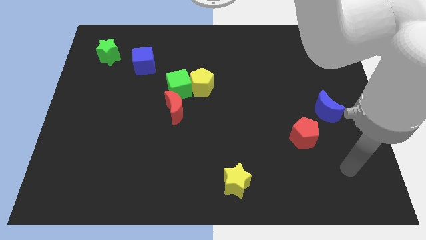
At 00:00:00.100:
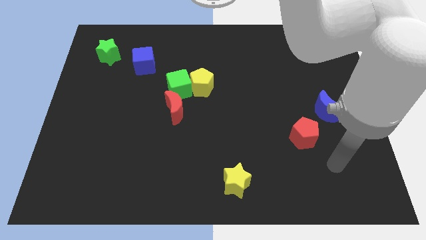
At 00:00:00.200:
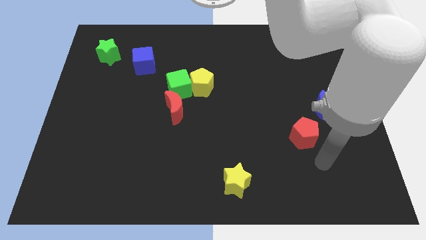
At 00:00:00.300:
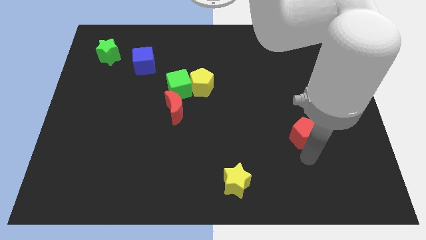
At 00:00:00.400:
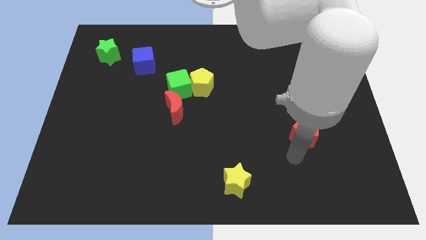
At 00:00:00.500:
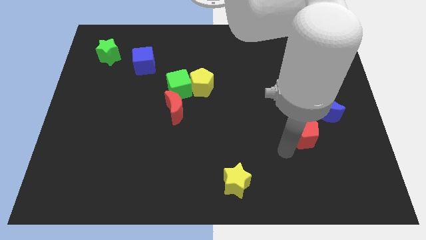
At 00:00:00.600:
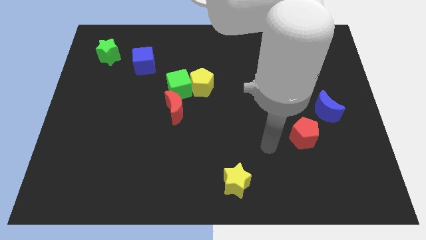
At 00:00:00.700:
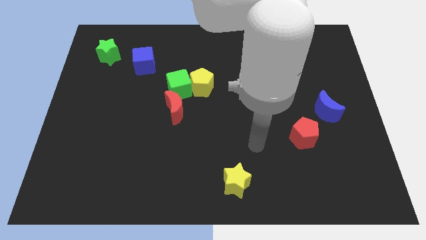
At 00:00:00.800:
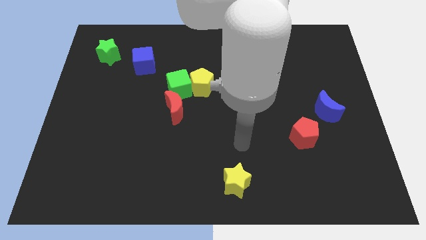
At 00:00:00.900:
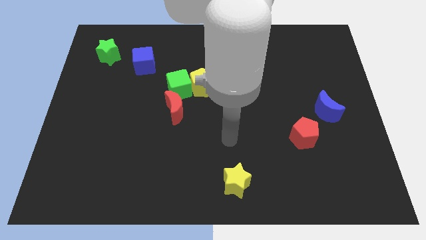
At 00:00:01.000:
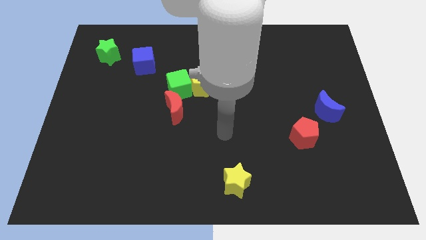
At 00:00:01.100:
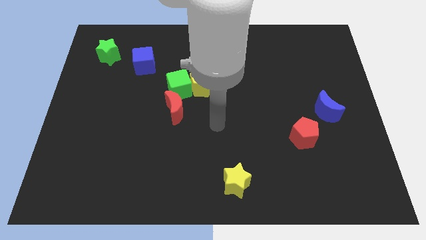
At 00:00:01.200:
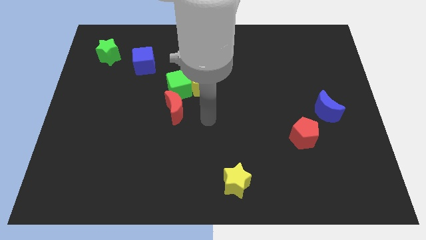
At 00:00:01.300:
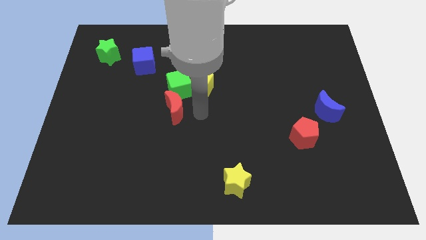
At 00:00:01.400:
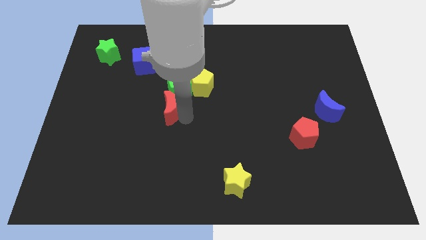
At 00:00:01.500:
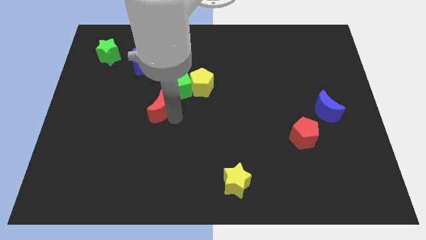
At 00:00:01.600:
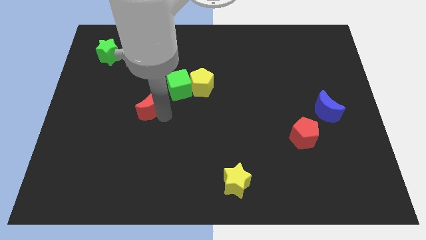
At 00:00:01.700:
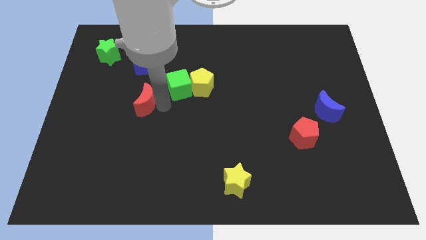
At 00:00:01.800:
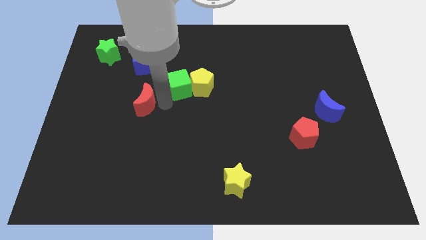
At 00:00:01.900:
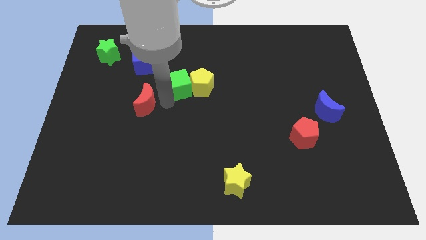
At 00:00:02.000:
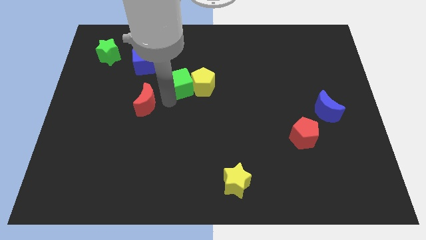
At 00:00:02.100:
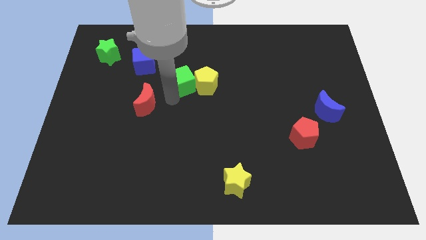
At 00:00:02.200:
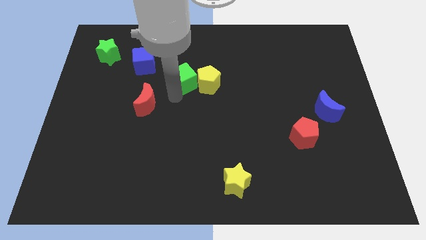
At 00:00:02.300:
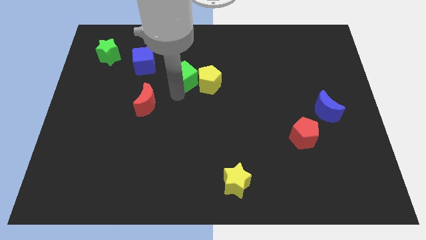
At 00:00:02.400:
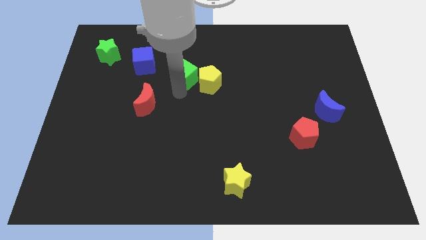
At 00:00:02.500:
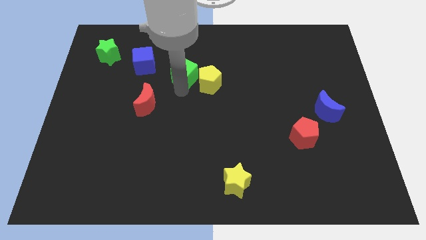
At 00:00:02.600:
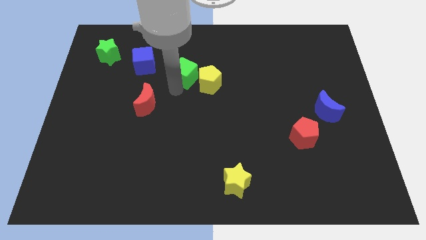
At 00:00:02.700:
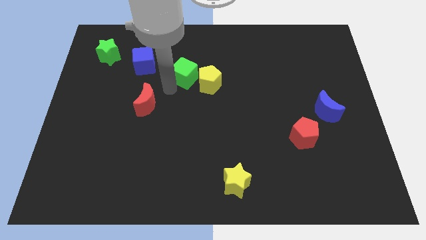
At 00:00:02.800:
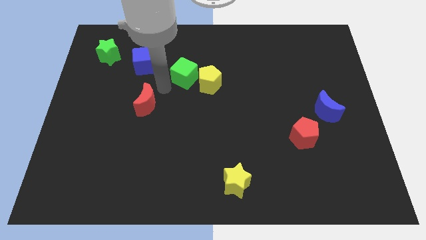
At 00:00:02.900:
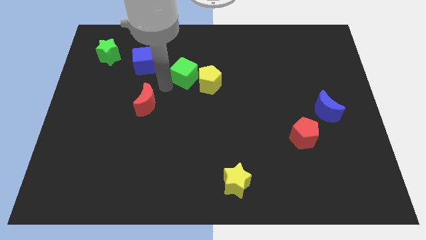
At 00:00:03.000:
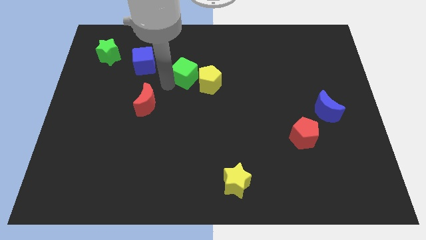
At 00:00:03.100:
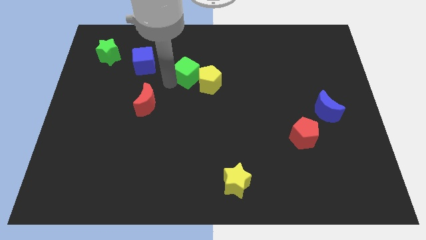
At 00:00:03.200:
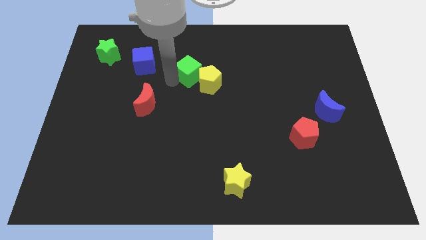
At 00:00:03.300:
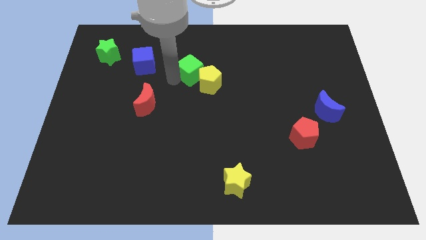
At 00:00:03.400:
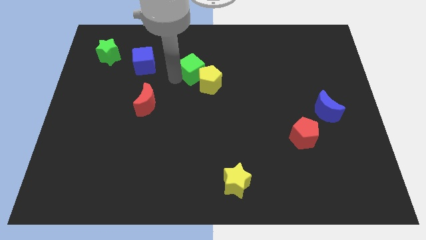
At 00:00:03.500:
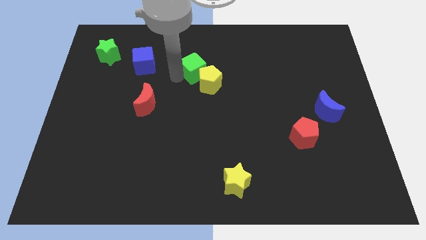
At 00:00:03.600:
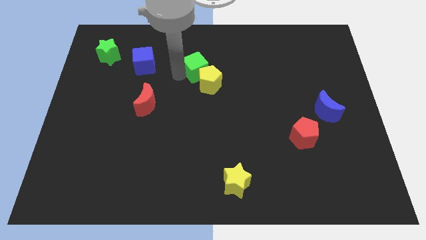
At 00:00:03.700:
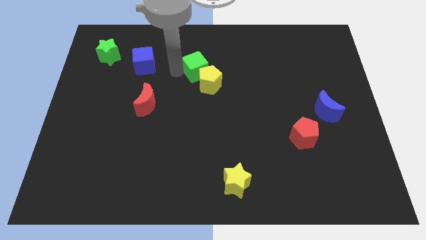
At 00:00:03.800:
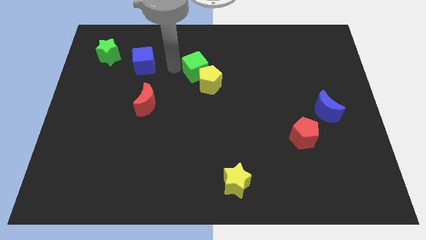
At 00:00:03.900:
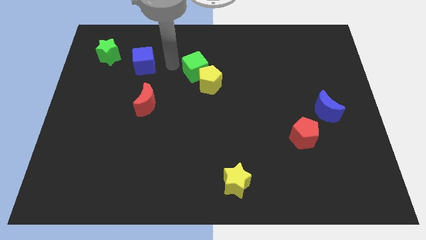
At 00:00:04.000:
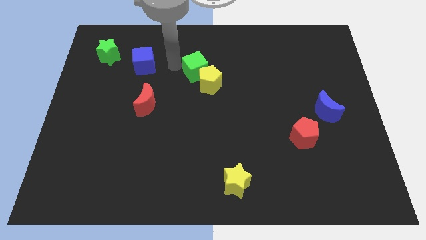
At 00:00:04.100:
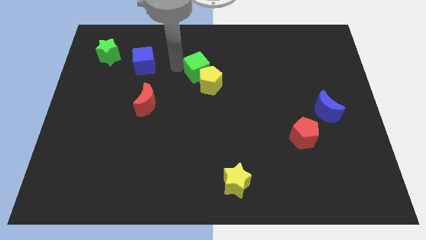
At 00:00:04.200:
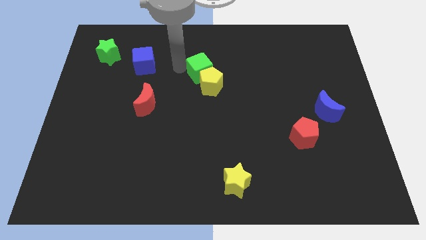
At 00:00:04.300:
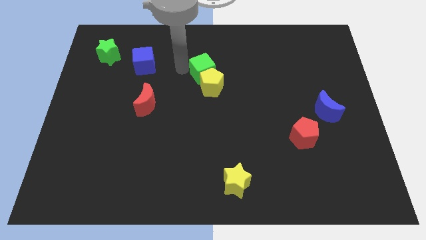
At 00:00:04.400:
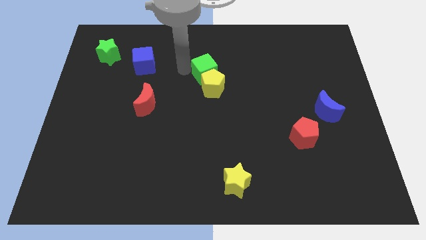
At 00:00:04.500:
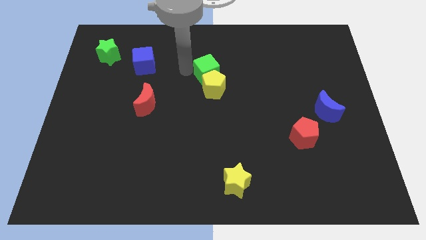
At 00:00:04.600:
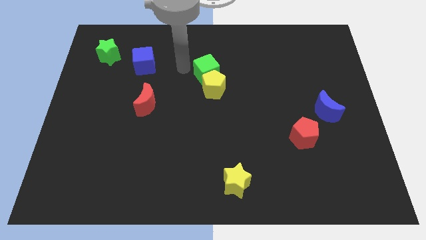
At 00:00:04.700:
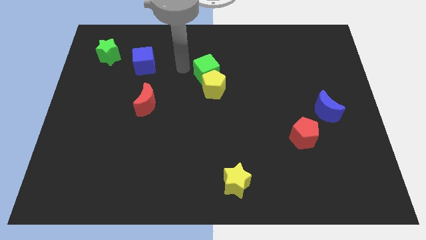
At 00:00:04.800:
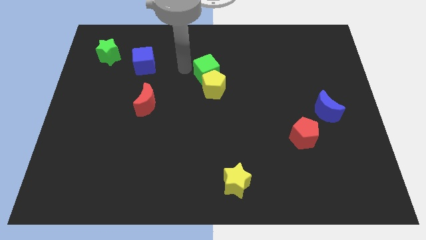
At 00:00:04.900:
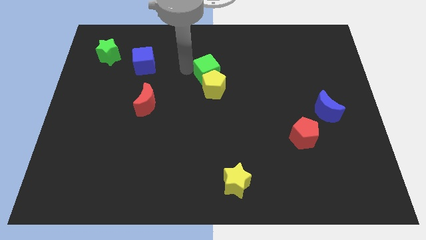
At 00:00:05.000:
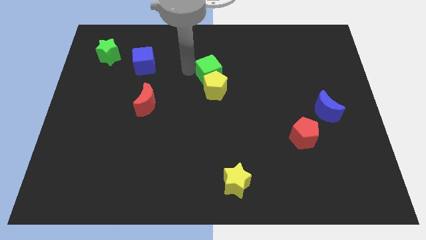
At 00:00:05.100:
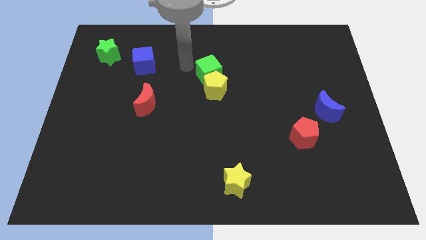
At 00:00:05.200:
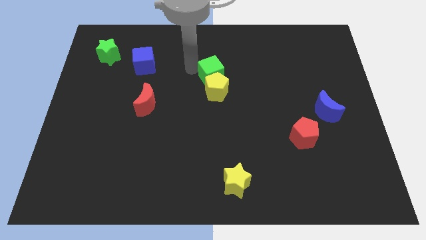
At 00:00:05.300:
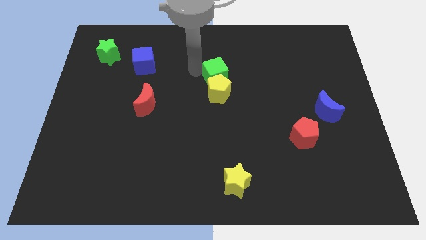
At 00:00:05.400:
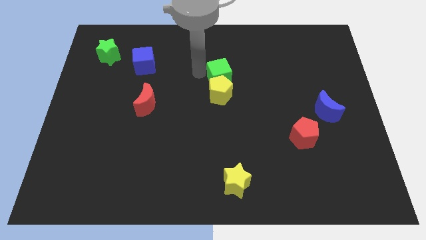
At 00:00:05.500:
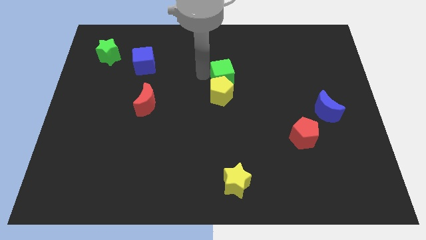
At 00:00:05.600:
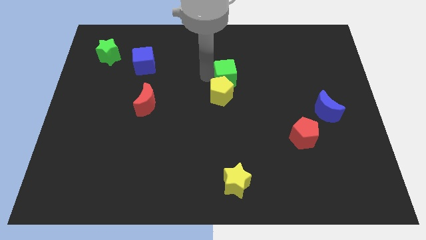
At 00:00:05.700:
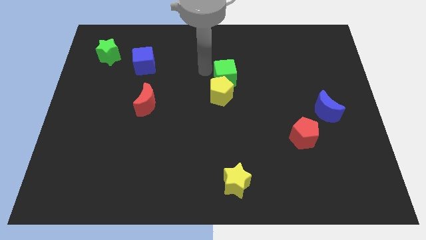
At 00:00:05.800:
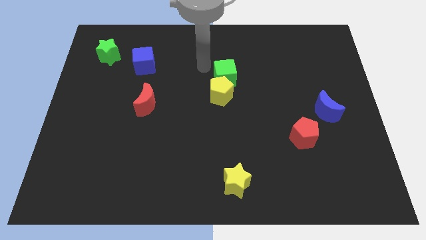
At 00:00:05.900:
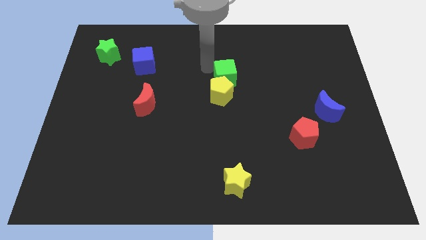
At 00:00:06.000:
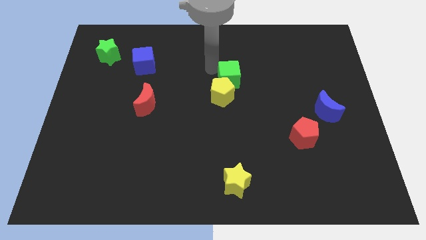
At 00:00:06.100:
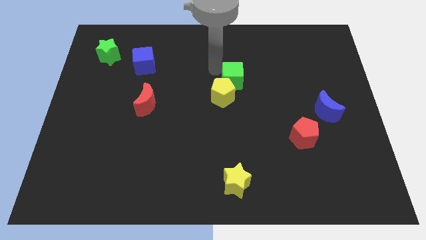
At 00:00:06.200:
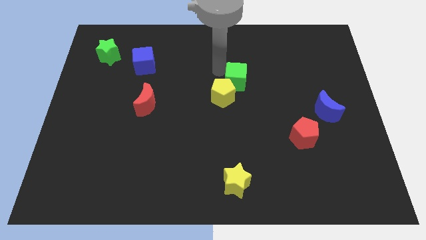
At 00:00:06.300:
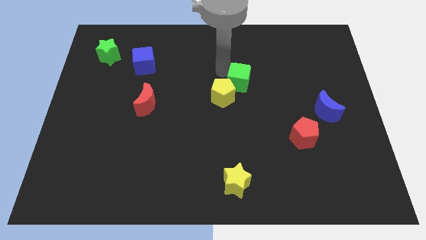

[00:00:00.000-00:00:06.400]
push the green cube to the right side of the yellow pentagon

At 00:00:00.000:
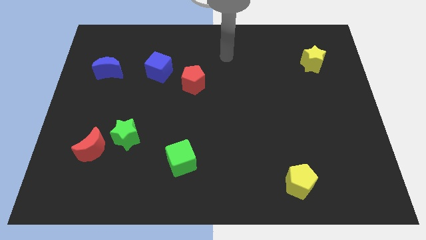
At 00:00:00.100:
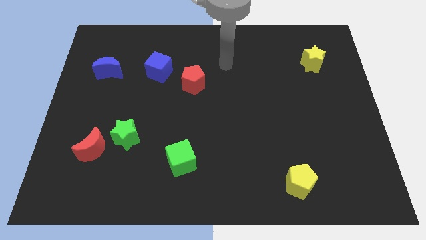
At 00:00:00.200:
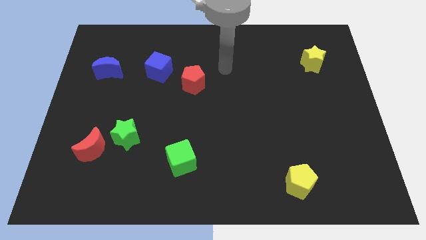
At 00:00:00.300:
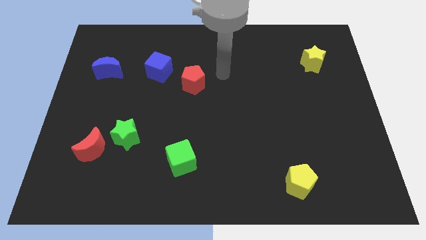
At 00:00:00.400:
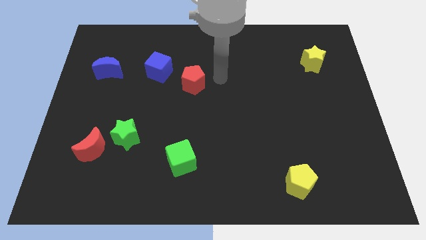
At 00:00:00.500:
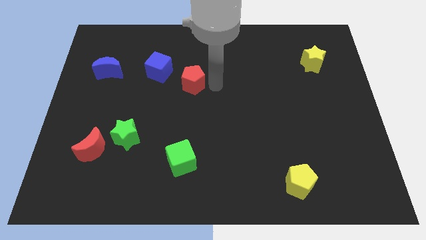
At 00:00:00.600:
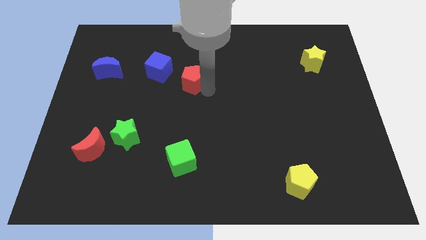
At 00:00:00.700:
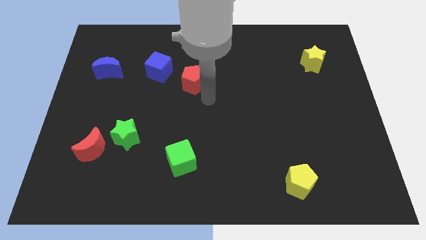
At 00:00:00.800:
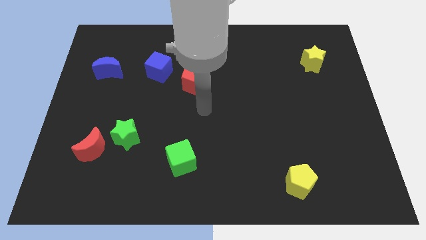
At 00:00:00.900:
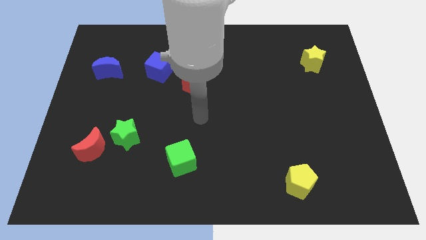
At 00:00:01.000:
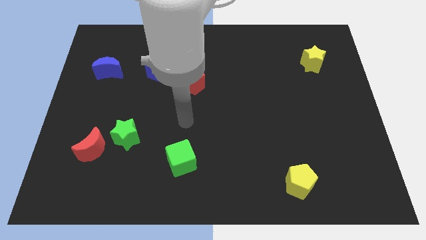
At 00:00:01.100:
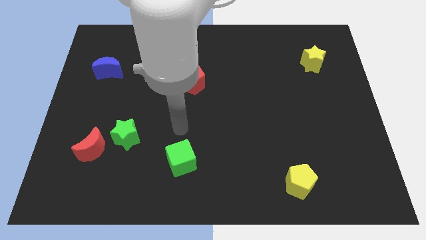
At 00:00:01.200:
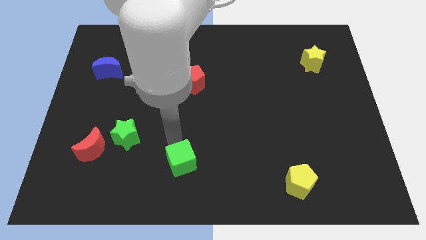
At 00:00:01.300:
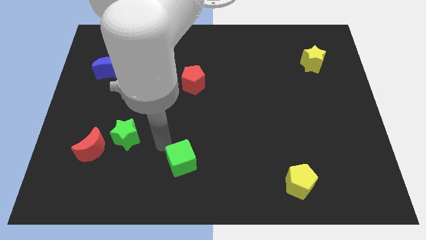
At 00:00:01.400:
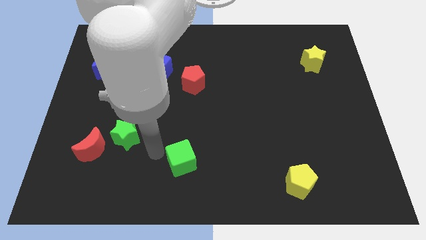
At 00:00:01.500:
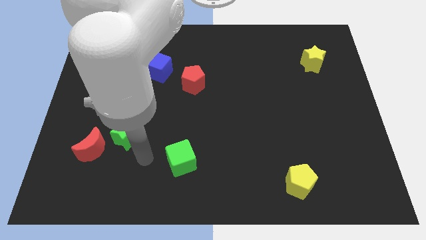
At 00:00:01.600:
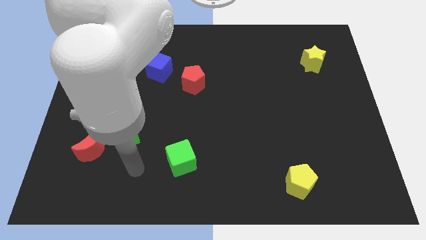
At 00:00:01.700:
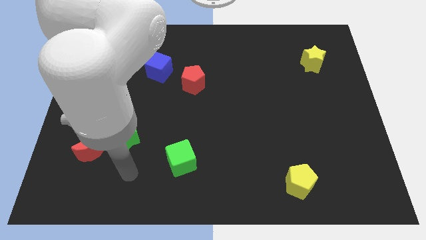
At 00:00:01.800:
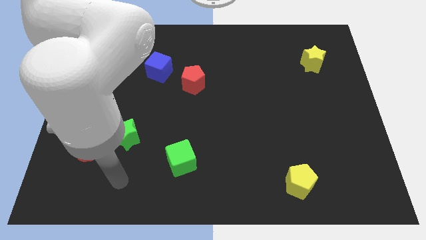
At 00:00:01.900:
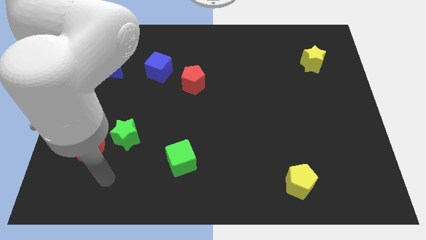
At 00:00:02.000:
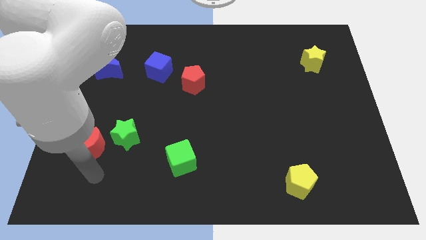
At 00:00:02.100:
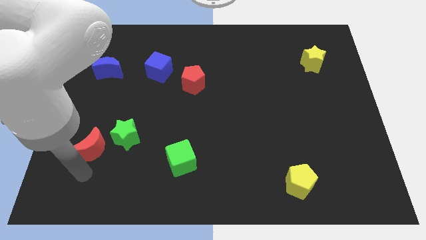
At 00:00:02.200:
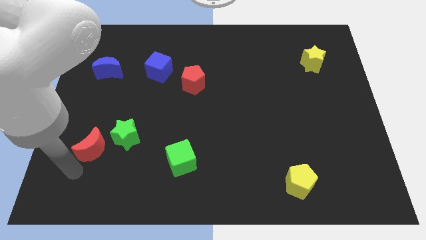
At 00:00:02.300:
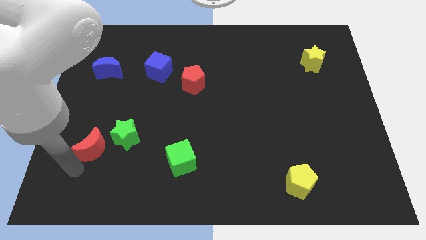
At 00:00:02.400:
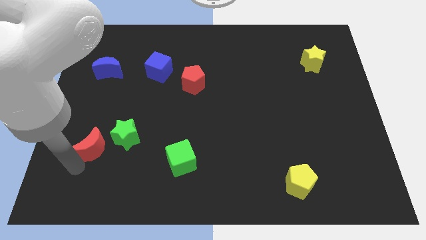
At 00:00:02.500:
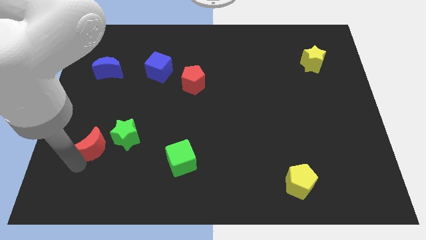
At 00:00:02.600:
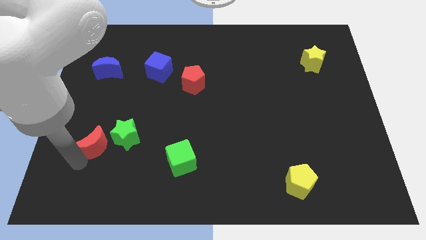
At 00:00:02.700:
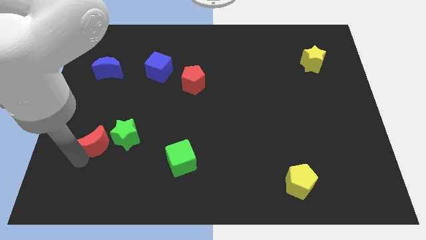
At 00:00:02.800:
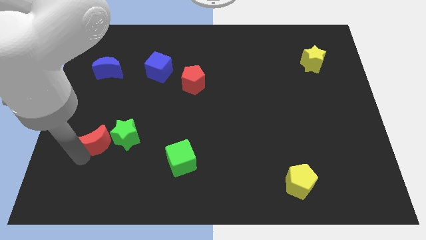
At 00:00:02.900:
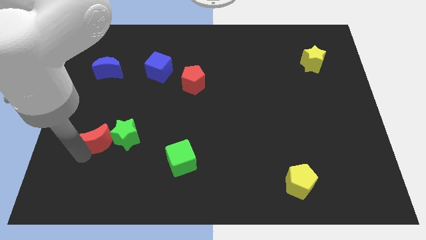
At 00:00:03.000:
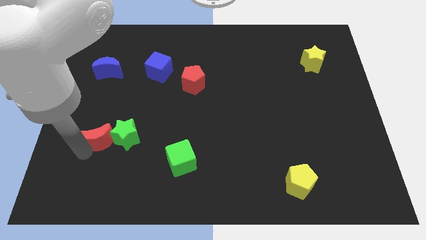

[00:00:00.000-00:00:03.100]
put the red moon diagonally up and to the left of the green star
